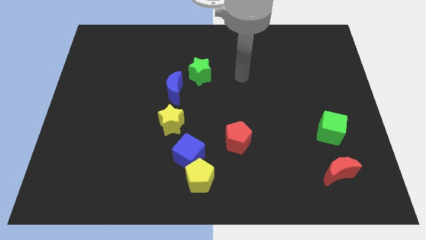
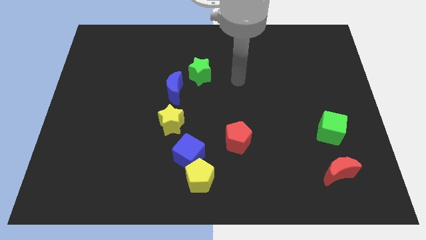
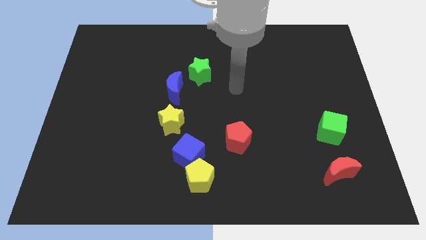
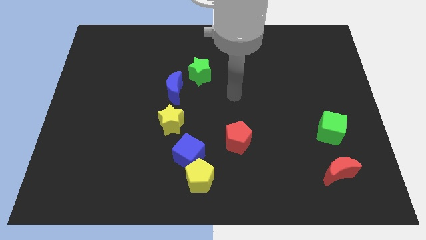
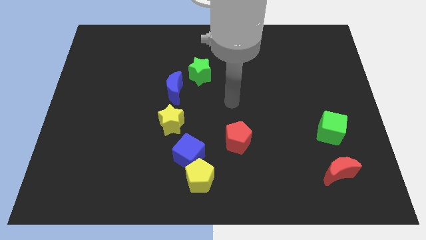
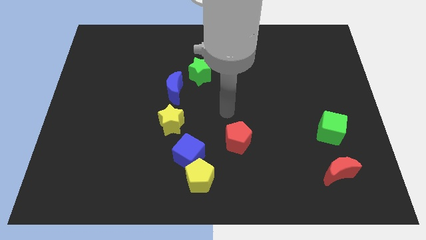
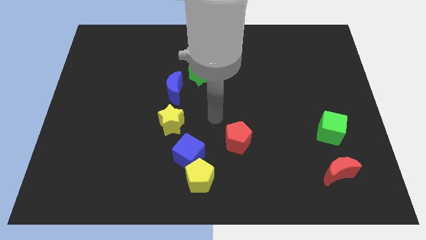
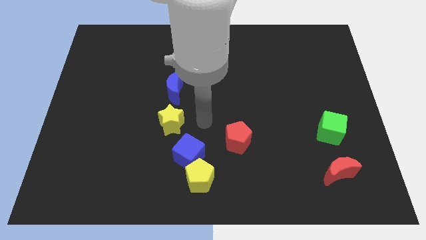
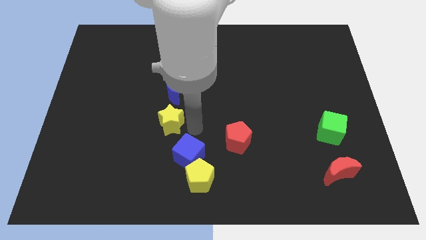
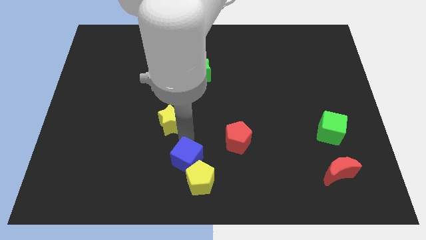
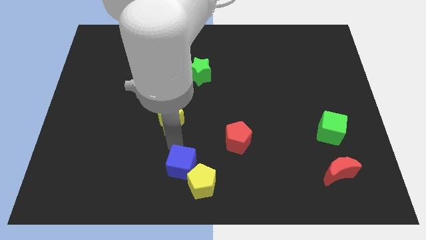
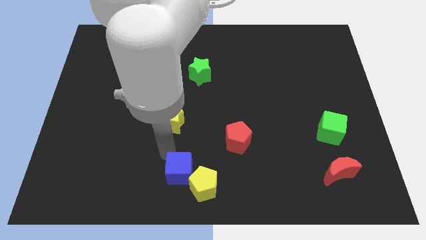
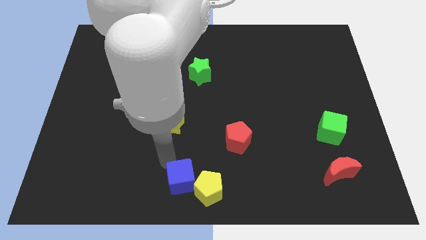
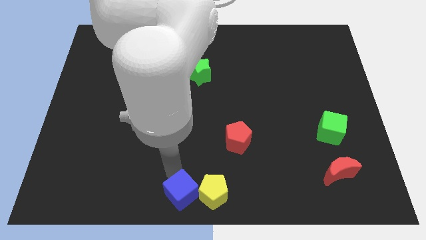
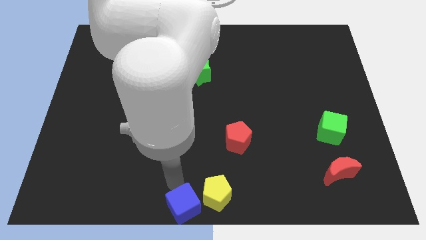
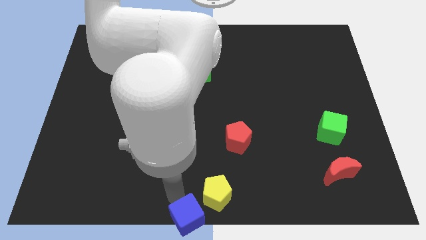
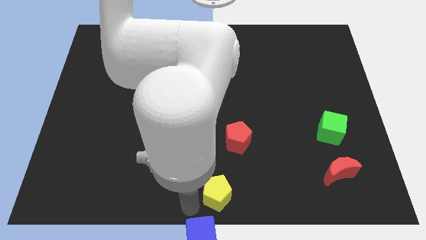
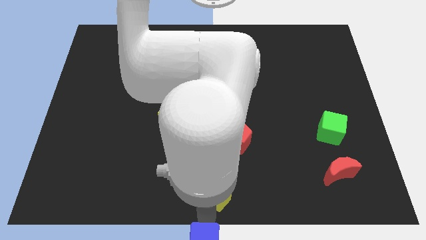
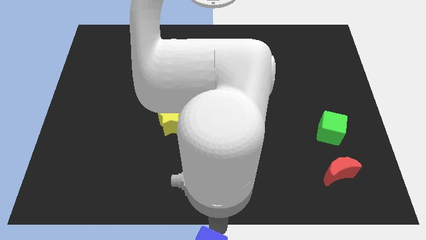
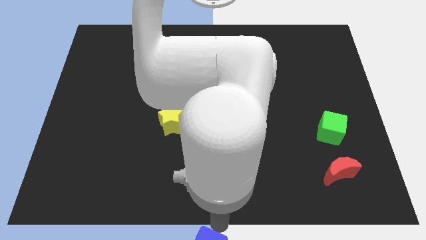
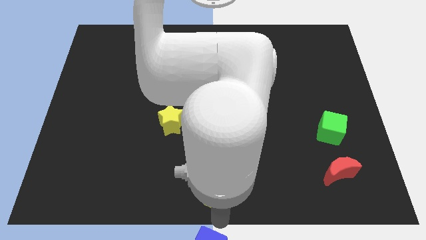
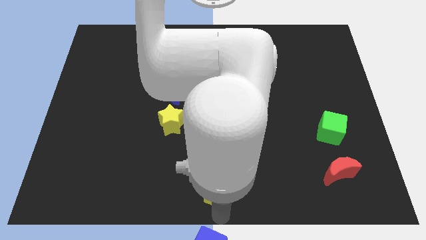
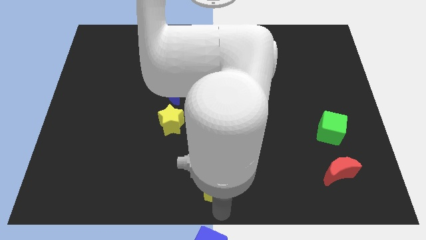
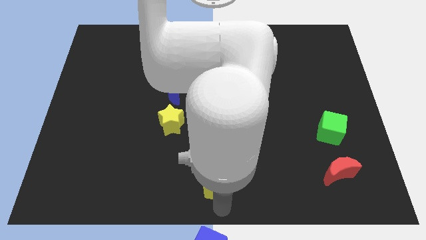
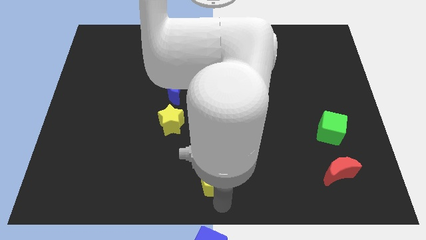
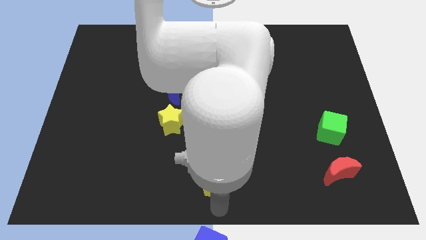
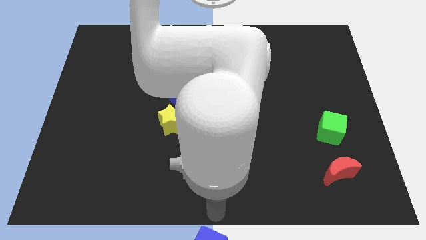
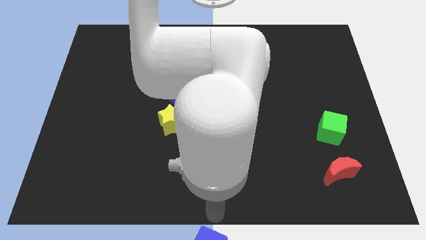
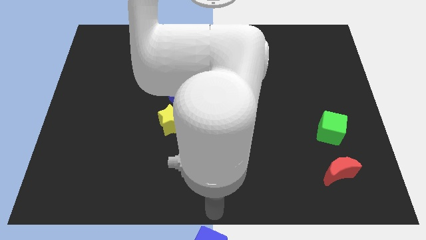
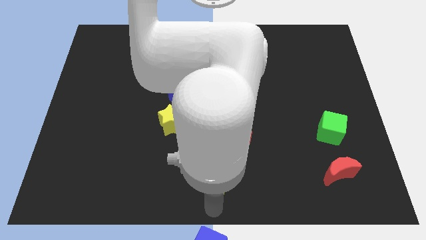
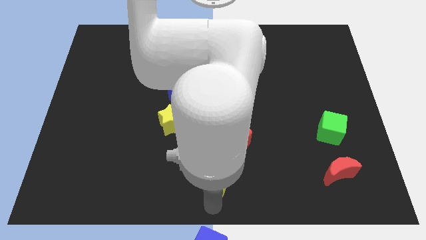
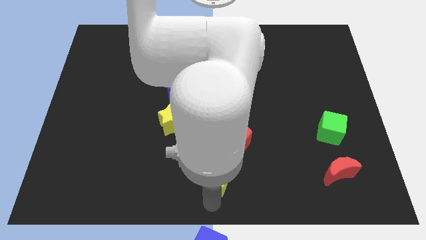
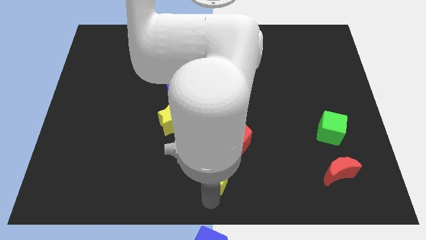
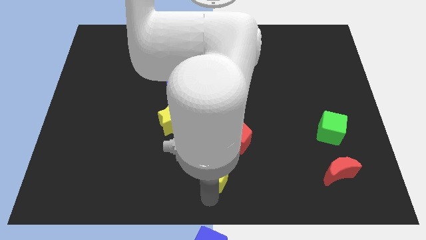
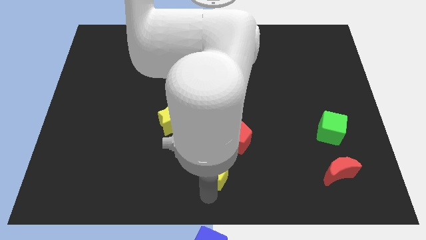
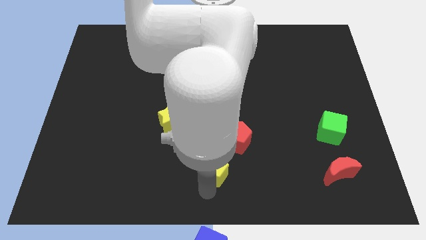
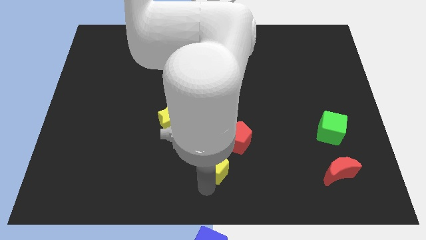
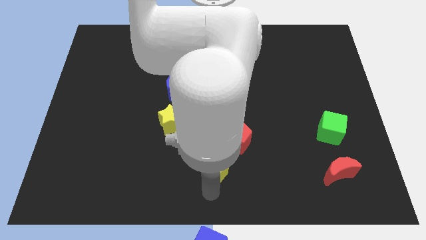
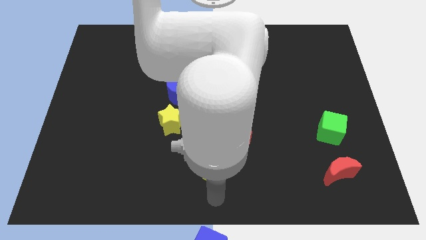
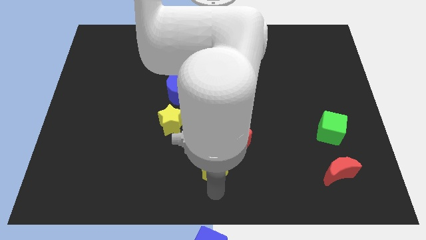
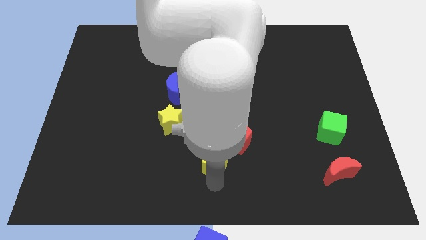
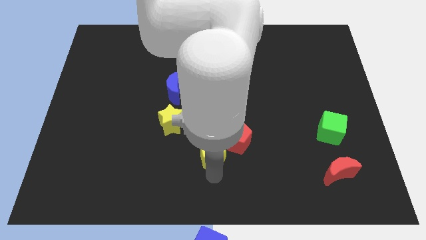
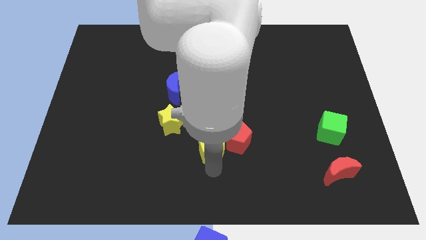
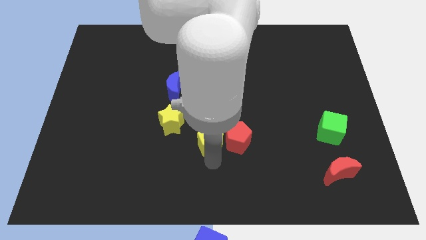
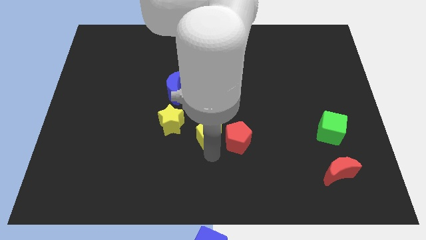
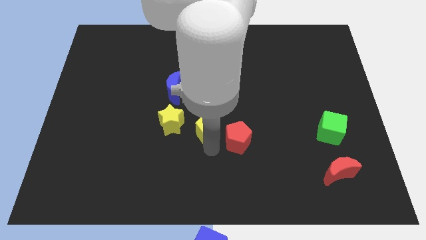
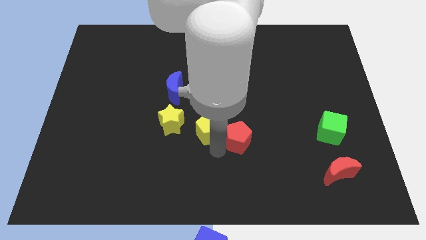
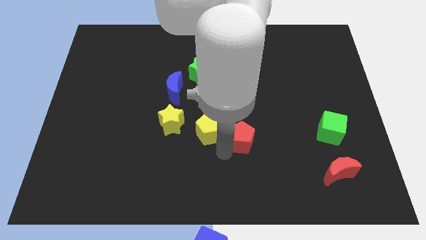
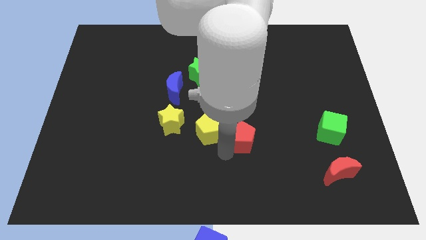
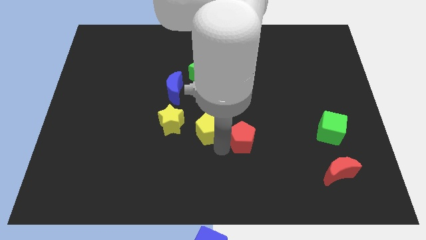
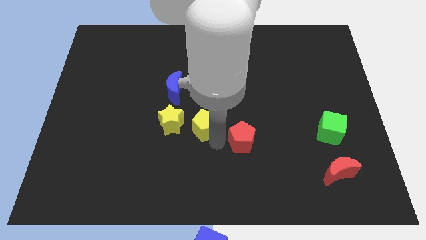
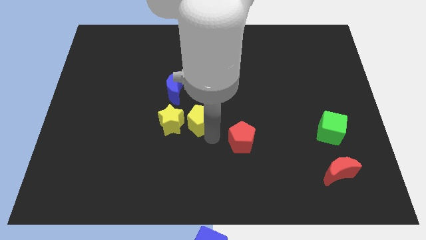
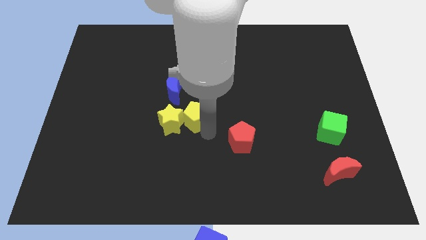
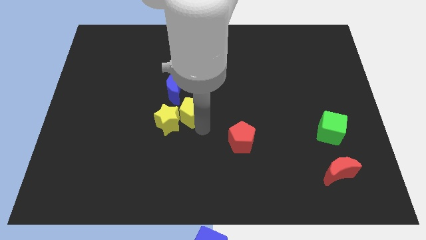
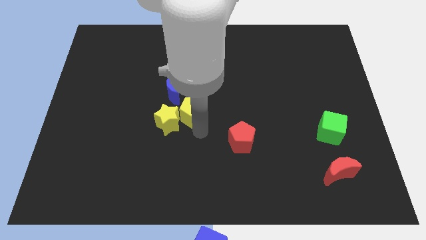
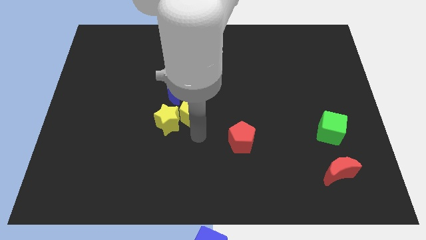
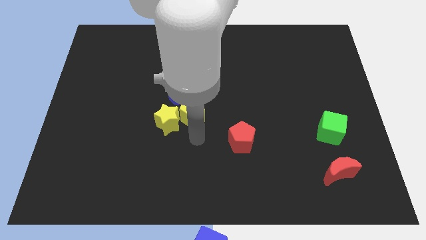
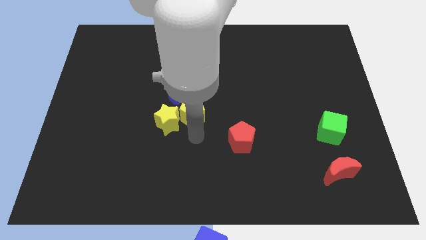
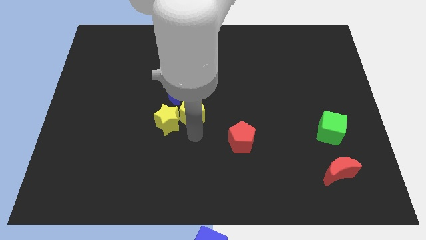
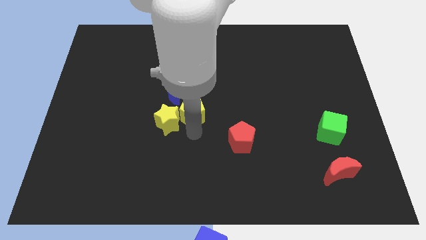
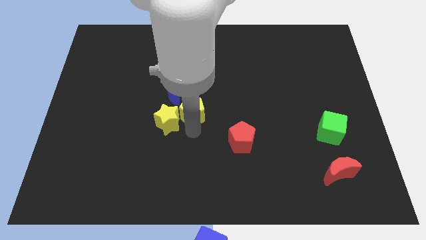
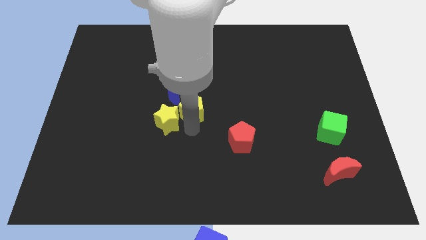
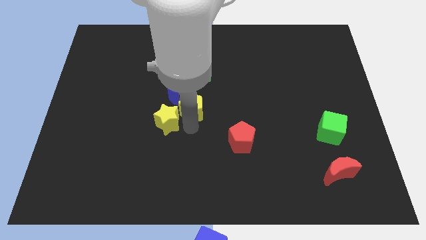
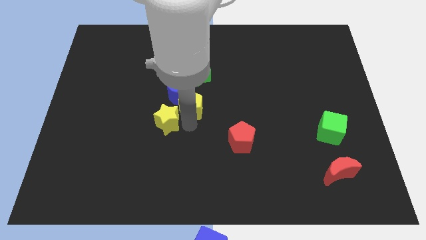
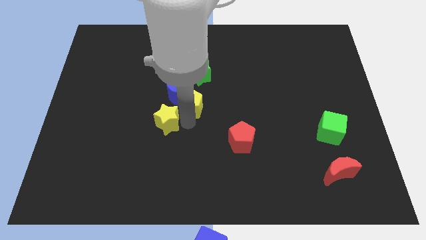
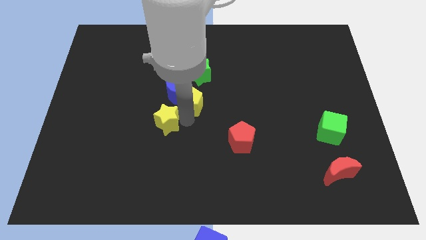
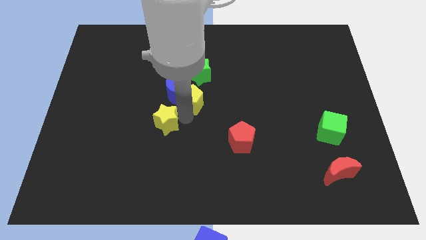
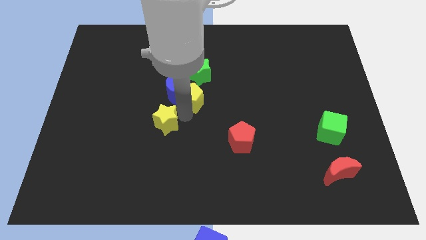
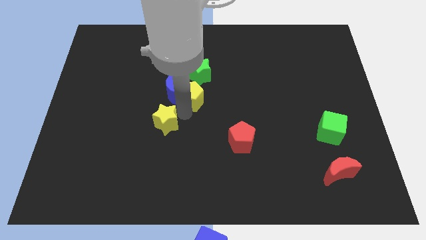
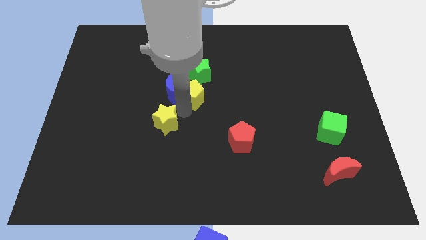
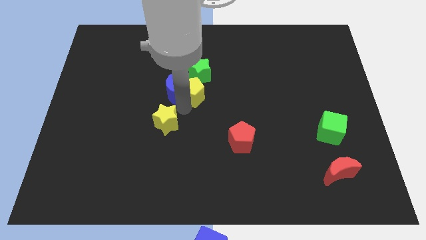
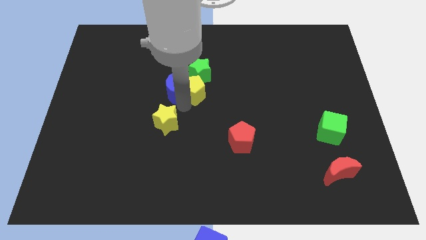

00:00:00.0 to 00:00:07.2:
move the yellow pentagon to the green star
